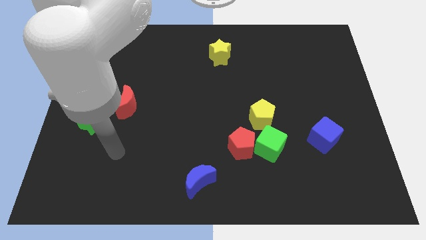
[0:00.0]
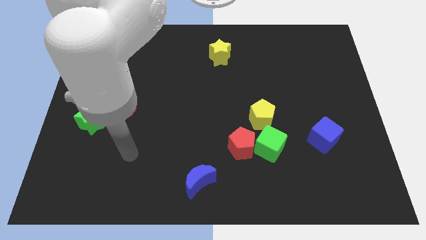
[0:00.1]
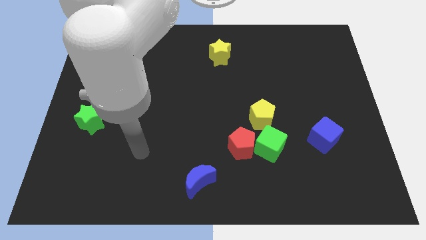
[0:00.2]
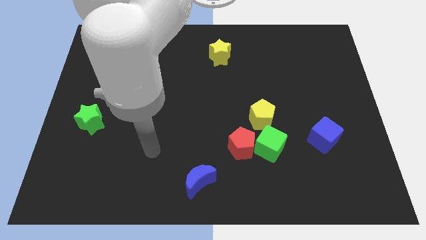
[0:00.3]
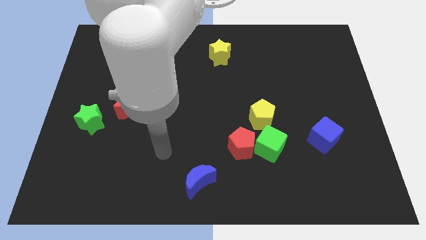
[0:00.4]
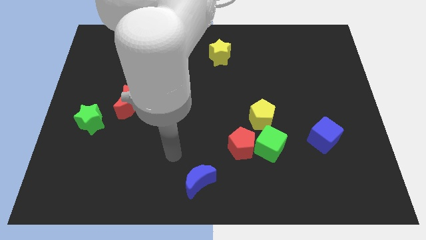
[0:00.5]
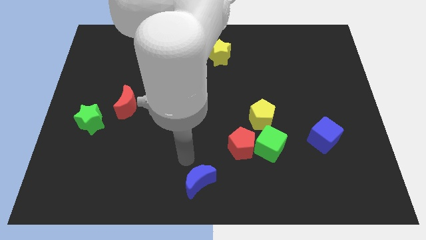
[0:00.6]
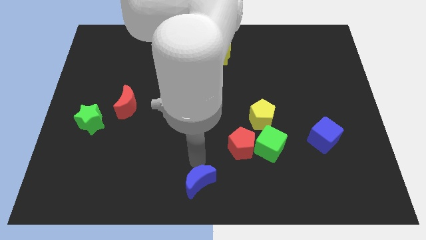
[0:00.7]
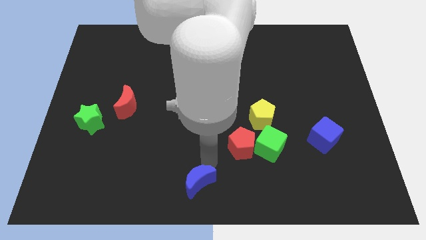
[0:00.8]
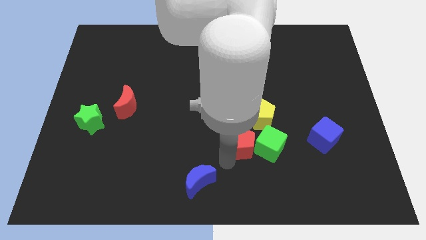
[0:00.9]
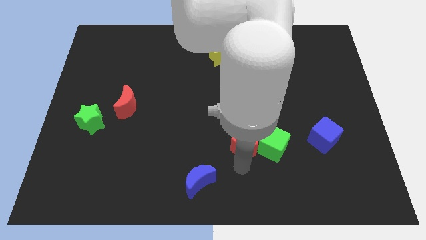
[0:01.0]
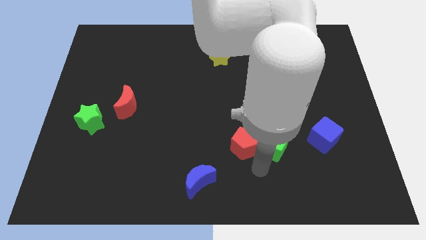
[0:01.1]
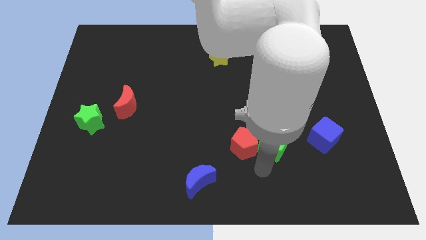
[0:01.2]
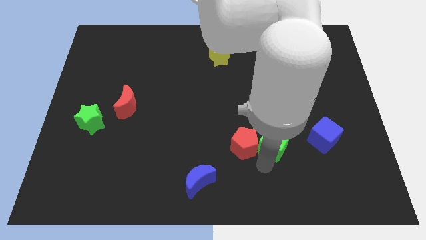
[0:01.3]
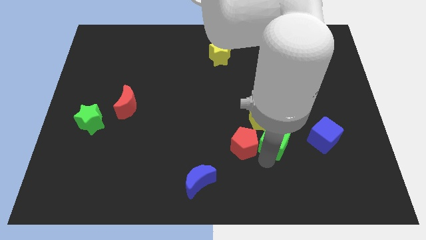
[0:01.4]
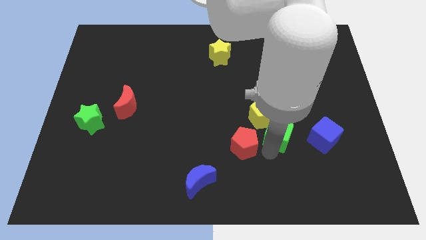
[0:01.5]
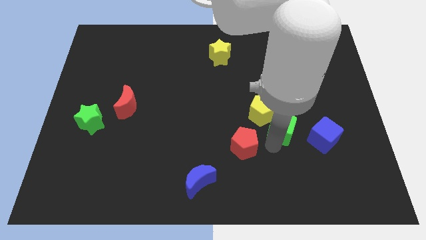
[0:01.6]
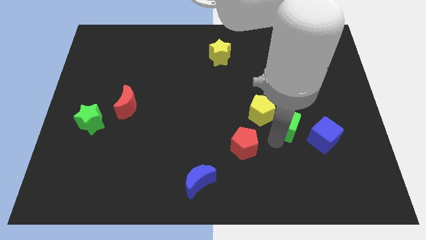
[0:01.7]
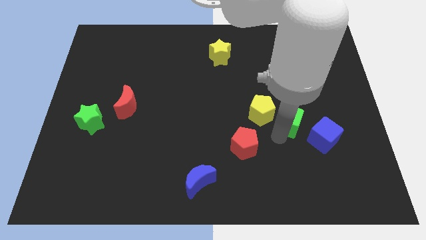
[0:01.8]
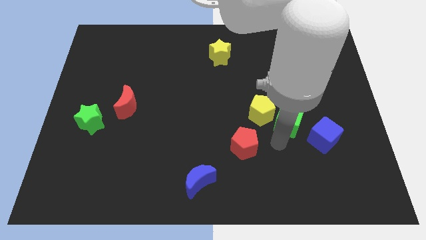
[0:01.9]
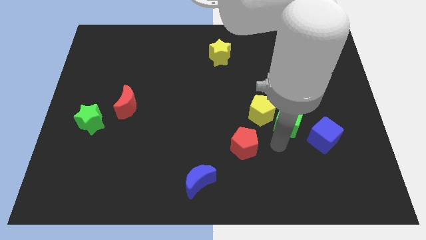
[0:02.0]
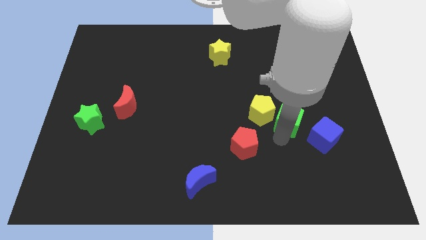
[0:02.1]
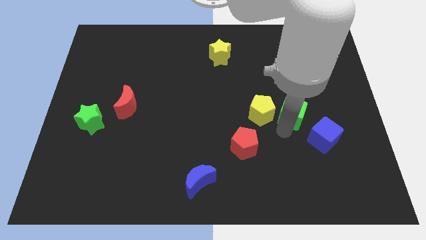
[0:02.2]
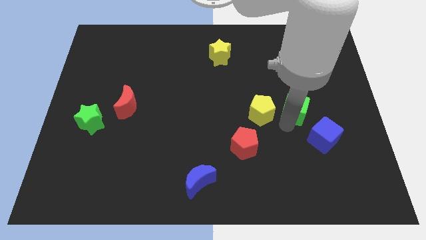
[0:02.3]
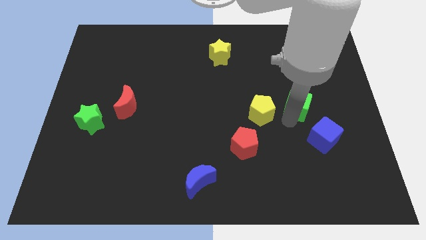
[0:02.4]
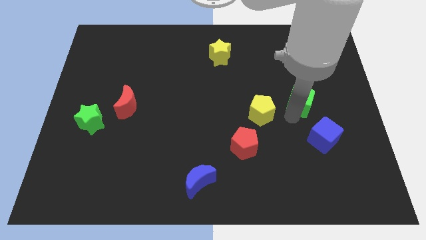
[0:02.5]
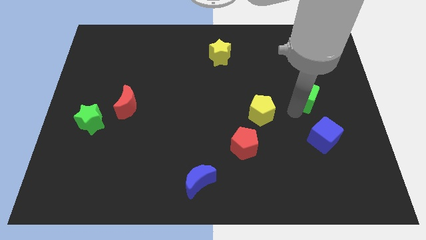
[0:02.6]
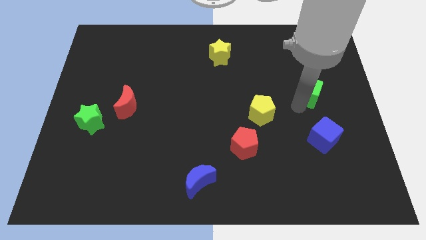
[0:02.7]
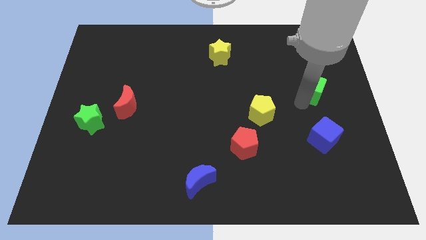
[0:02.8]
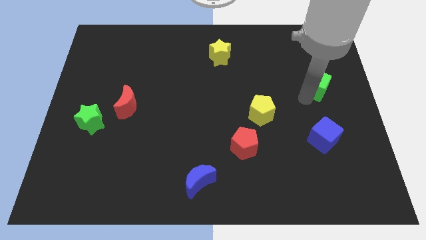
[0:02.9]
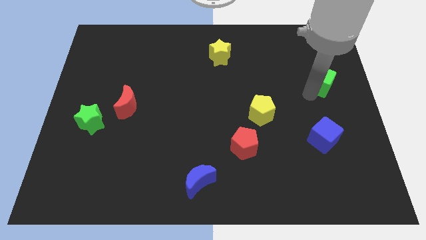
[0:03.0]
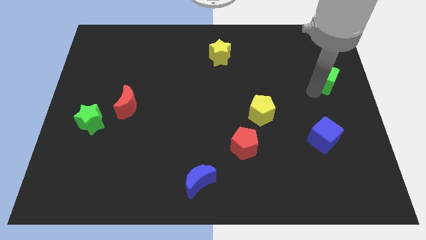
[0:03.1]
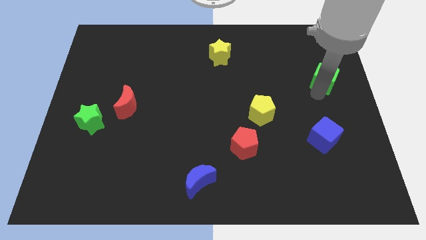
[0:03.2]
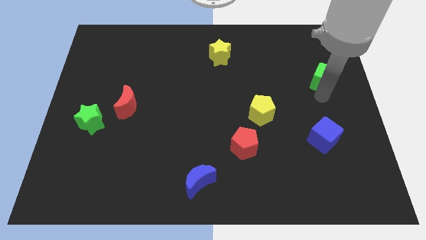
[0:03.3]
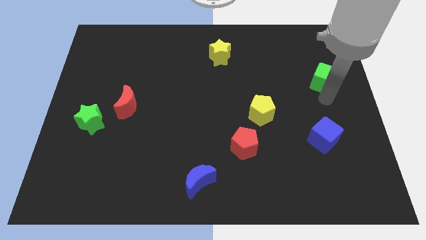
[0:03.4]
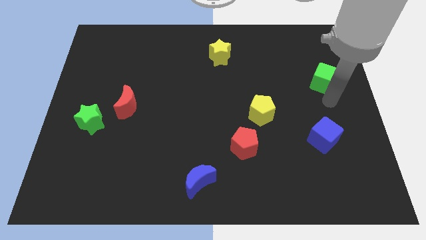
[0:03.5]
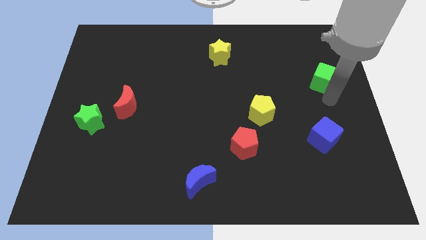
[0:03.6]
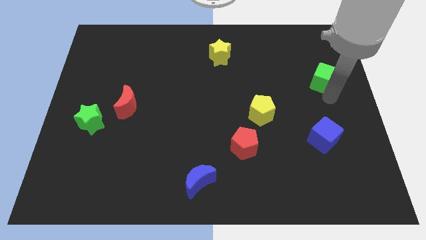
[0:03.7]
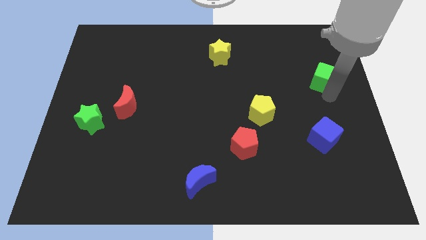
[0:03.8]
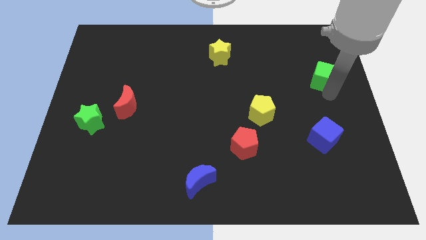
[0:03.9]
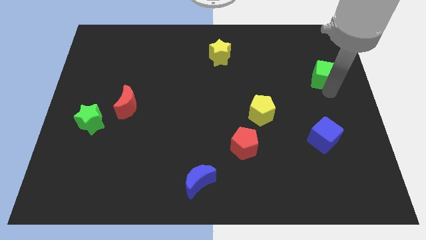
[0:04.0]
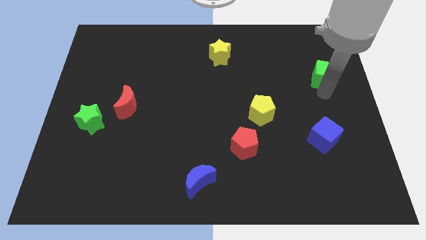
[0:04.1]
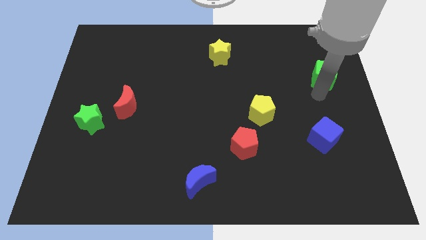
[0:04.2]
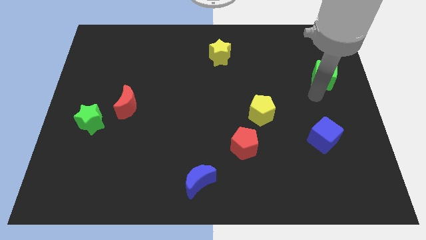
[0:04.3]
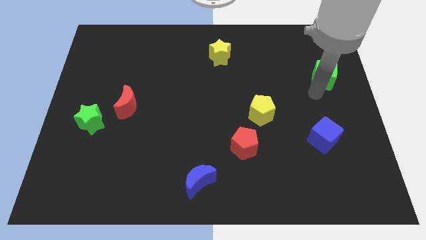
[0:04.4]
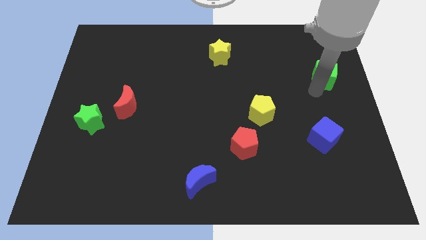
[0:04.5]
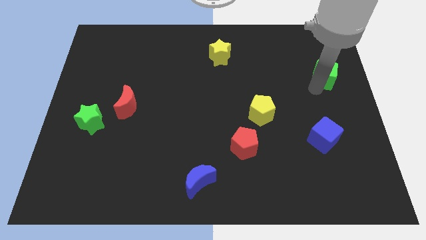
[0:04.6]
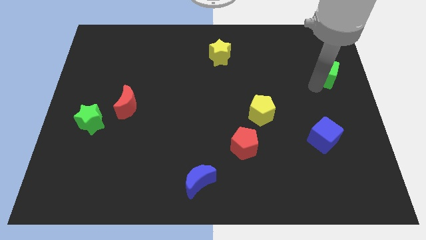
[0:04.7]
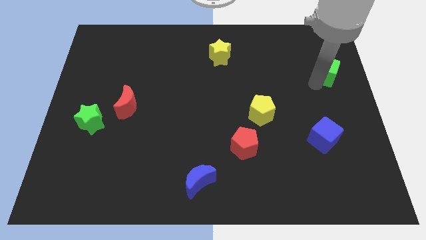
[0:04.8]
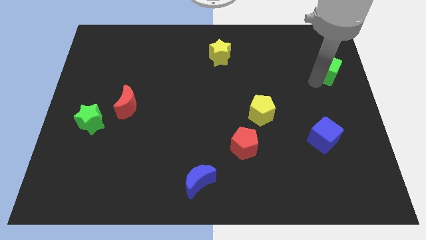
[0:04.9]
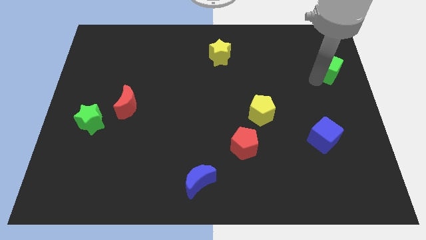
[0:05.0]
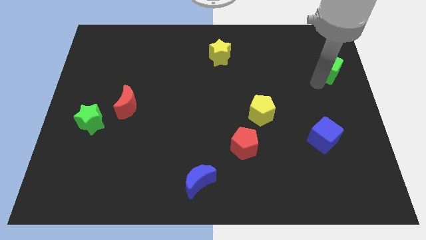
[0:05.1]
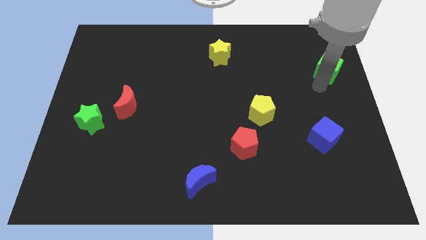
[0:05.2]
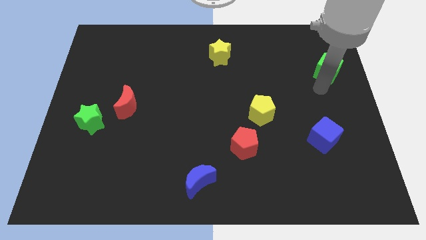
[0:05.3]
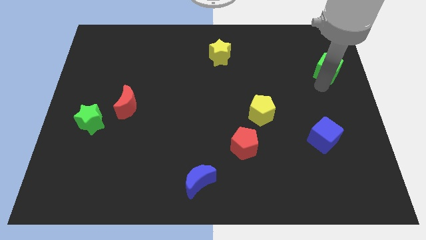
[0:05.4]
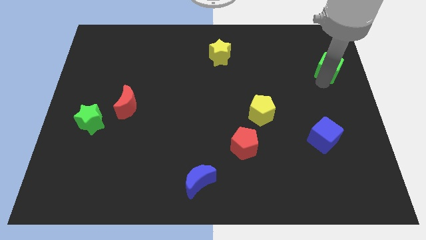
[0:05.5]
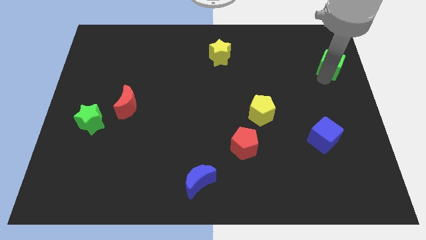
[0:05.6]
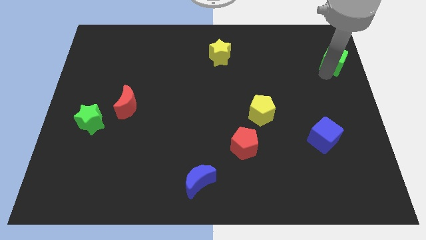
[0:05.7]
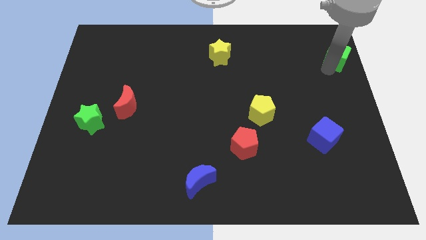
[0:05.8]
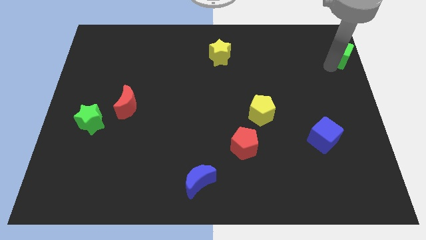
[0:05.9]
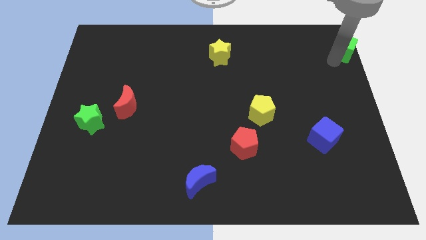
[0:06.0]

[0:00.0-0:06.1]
put the green cube to the upper right corner
